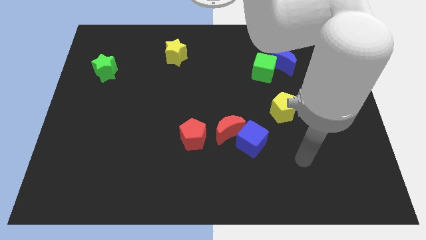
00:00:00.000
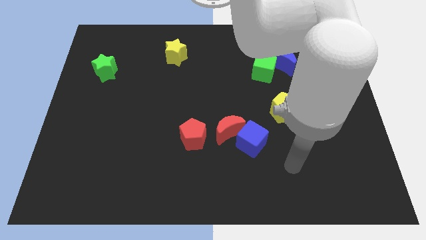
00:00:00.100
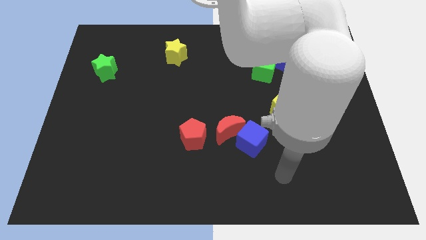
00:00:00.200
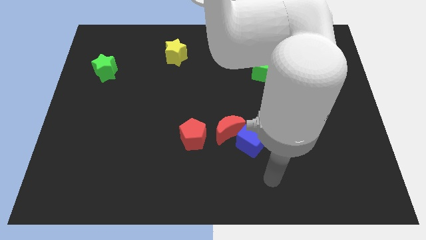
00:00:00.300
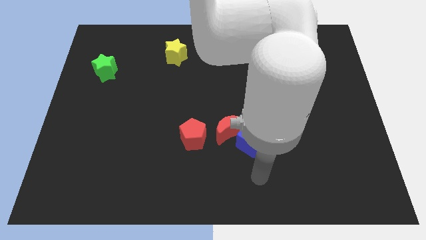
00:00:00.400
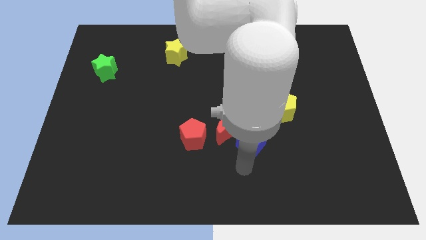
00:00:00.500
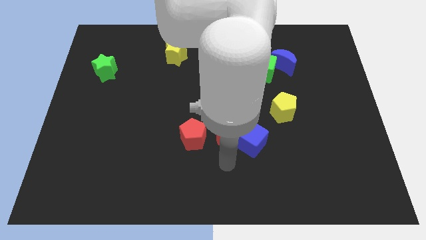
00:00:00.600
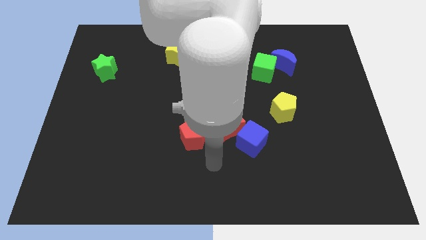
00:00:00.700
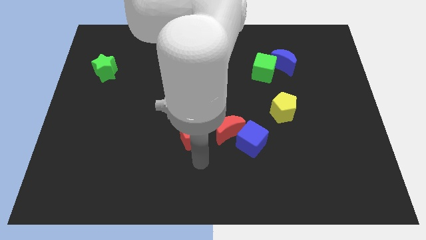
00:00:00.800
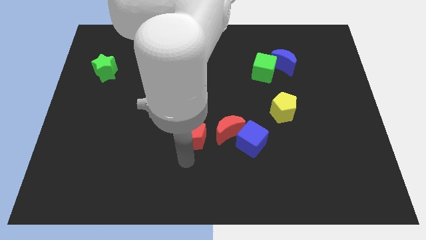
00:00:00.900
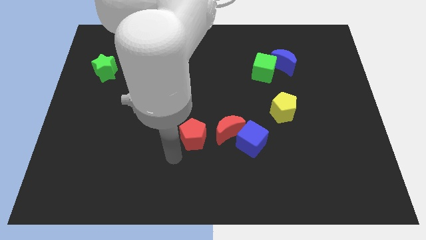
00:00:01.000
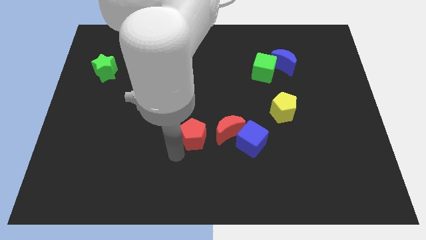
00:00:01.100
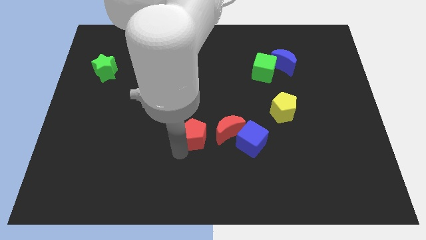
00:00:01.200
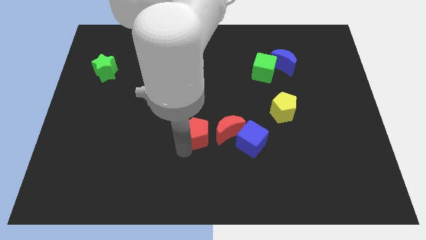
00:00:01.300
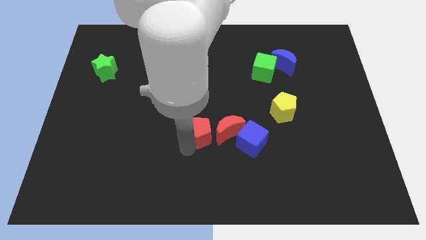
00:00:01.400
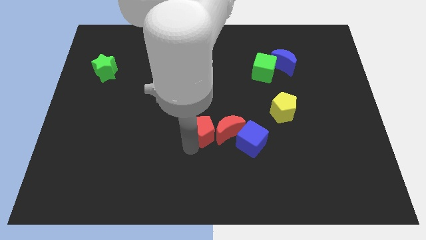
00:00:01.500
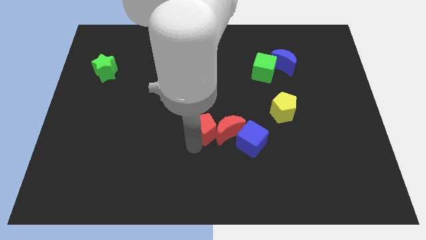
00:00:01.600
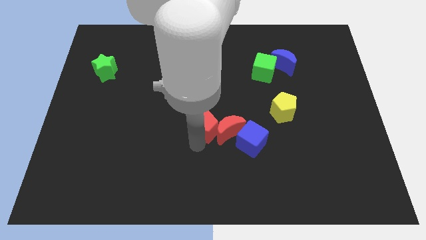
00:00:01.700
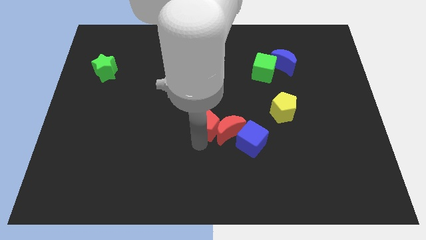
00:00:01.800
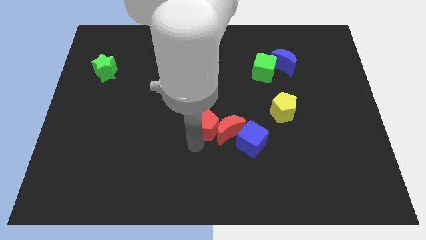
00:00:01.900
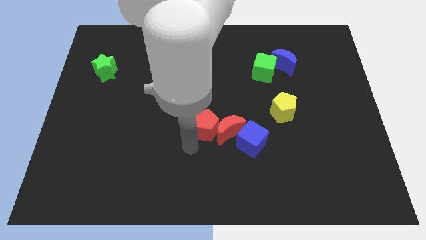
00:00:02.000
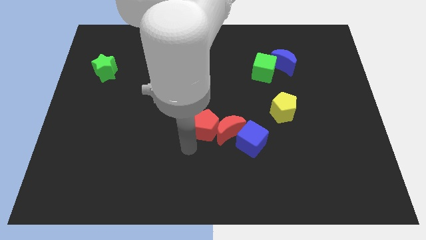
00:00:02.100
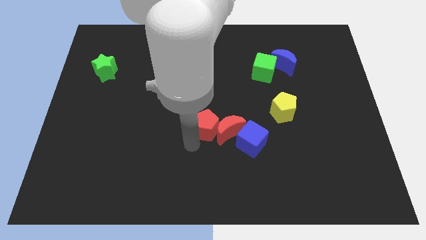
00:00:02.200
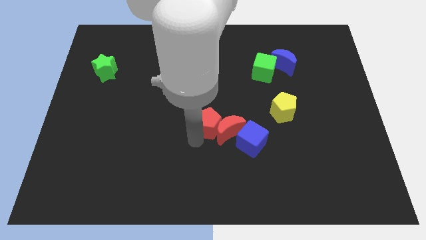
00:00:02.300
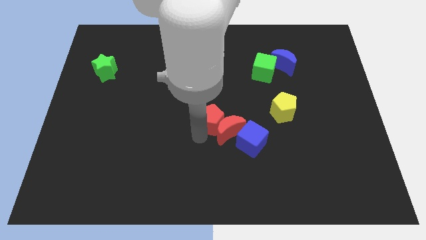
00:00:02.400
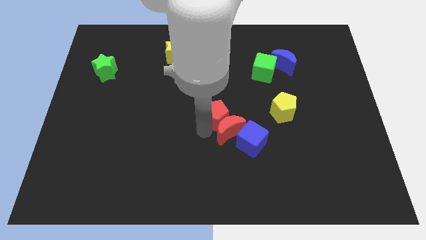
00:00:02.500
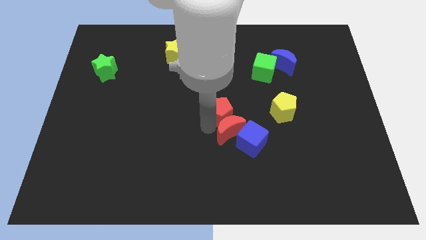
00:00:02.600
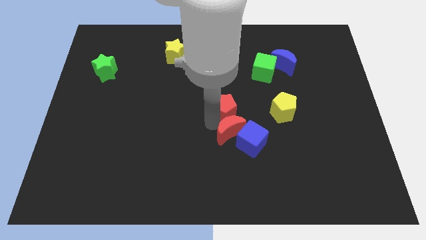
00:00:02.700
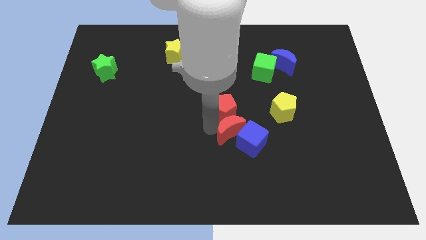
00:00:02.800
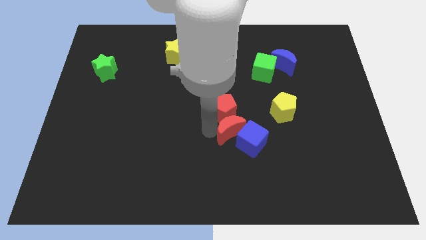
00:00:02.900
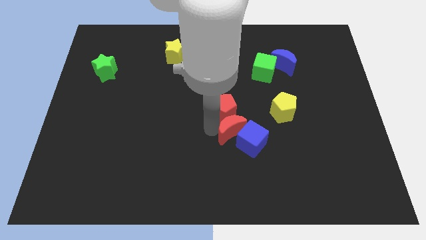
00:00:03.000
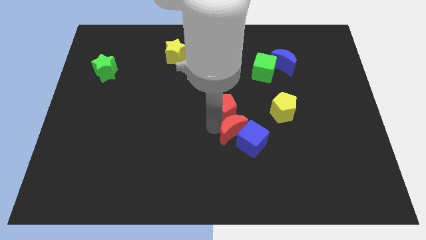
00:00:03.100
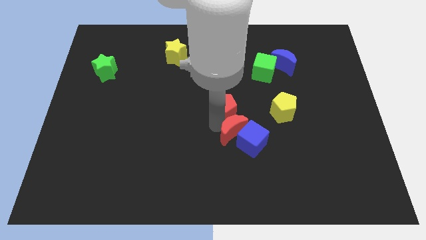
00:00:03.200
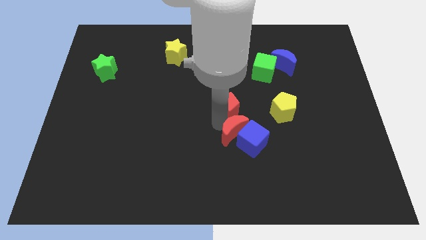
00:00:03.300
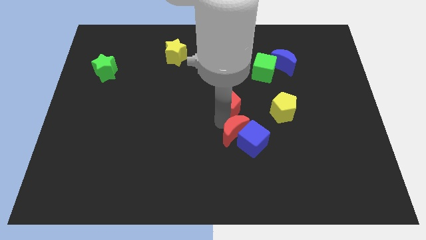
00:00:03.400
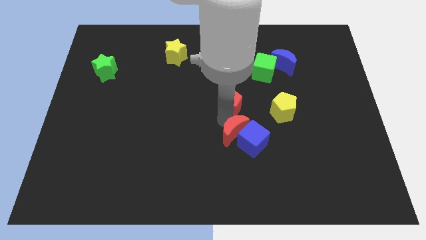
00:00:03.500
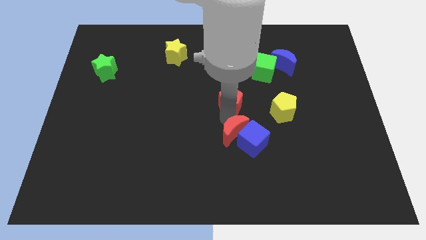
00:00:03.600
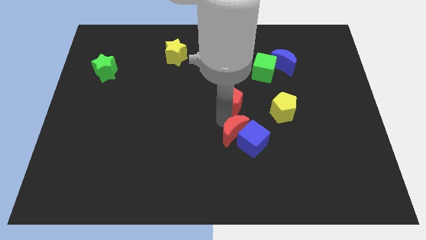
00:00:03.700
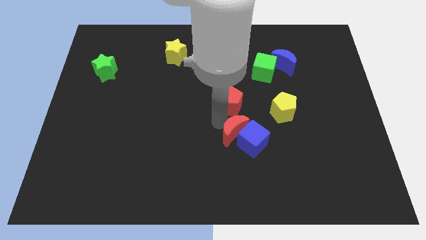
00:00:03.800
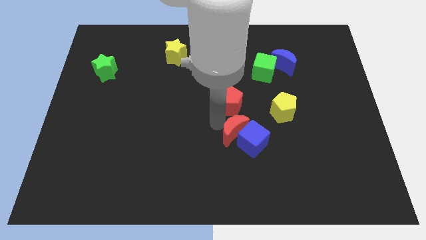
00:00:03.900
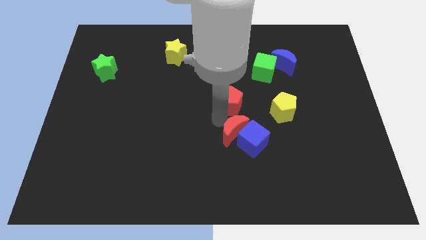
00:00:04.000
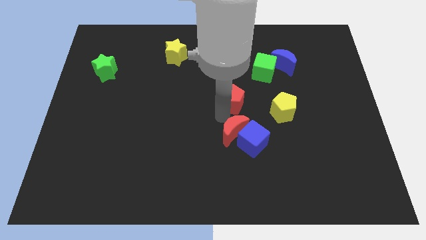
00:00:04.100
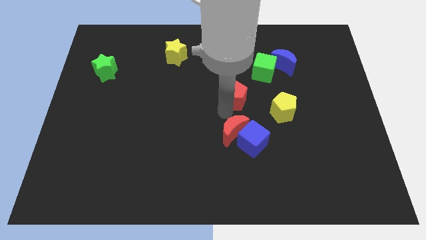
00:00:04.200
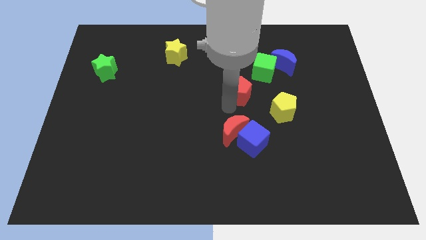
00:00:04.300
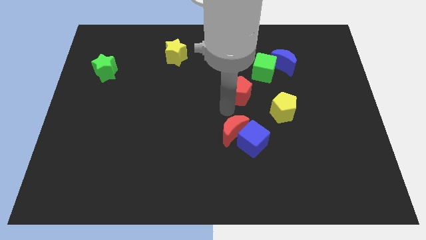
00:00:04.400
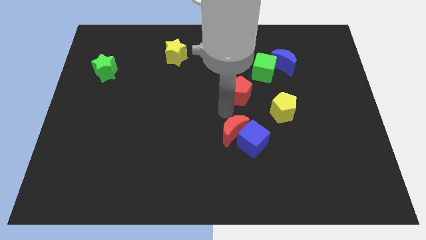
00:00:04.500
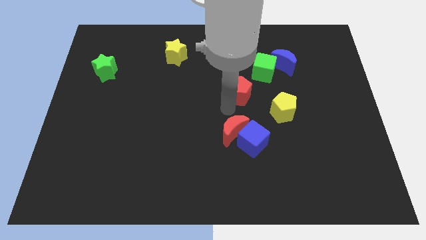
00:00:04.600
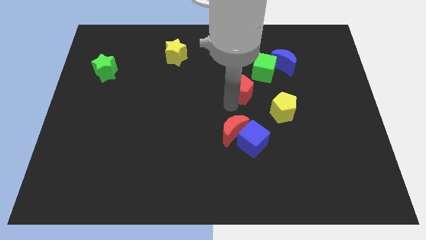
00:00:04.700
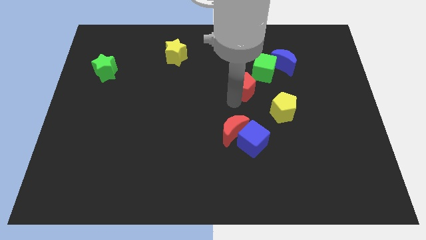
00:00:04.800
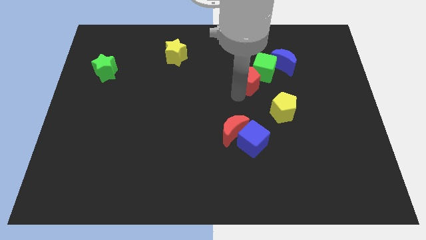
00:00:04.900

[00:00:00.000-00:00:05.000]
slide the red pentagon to the green cube

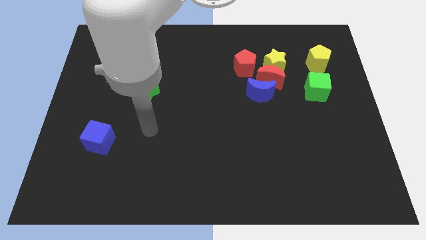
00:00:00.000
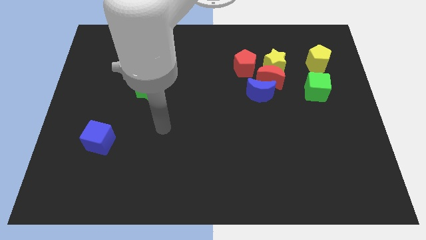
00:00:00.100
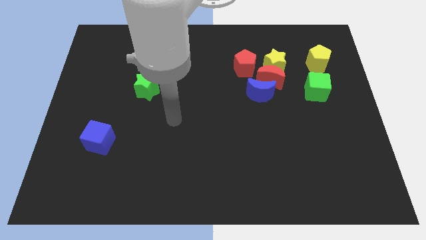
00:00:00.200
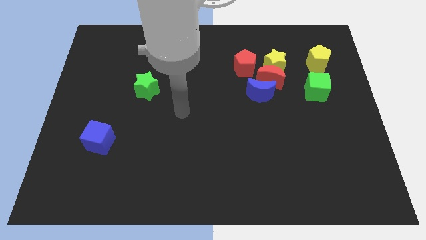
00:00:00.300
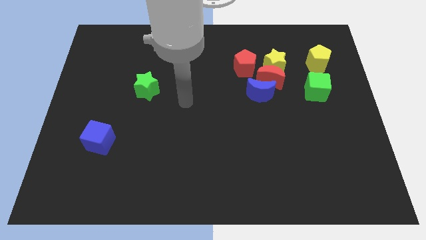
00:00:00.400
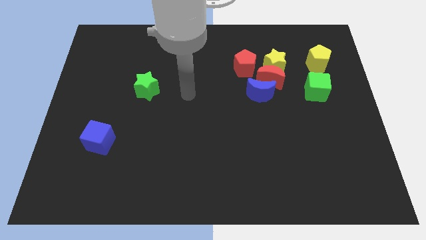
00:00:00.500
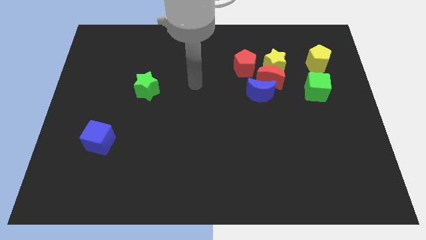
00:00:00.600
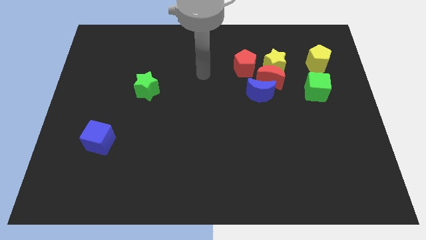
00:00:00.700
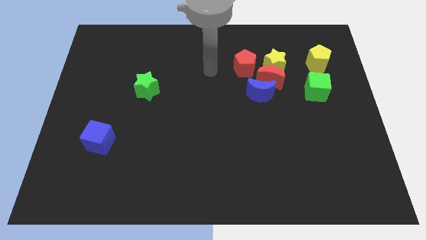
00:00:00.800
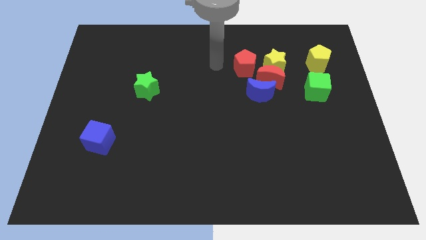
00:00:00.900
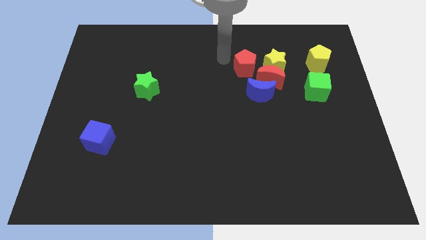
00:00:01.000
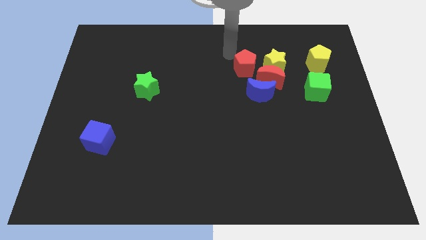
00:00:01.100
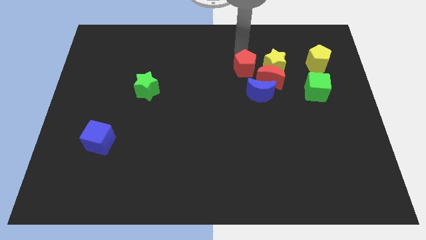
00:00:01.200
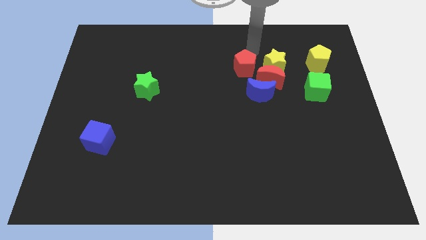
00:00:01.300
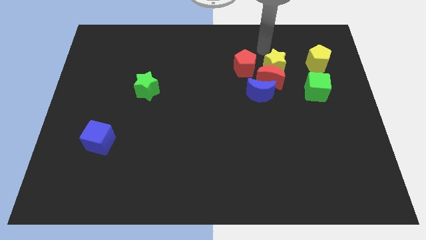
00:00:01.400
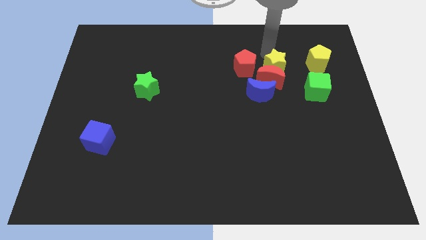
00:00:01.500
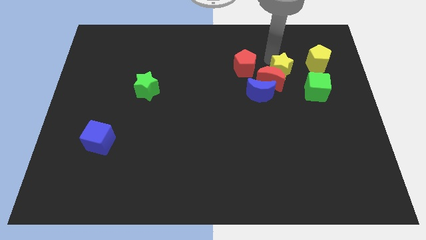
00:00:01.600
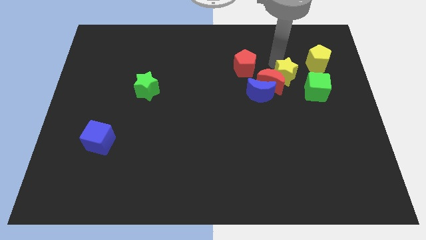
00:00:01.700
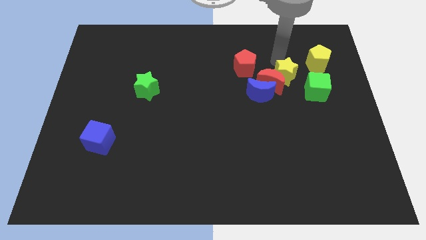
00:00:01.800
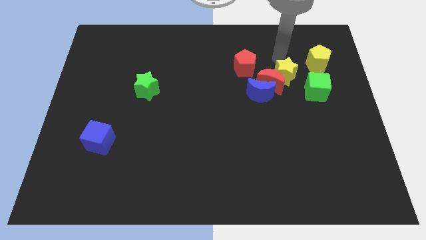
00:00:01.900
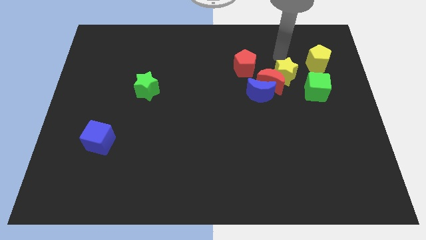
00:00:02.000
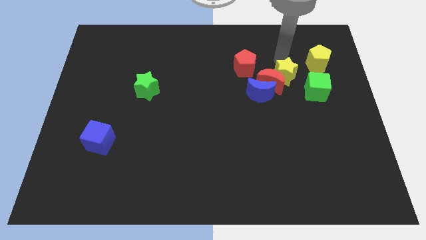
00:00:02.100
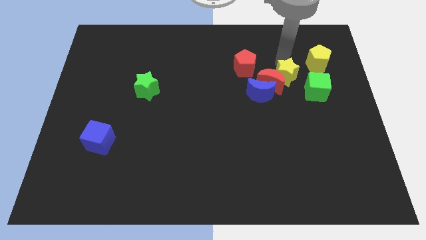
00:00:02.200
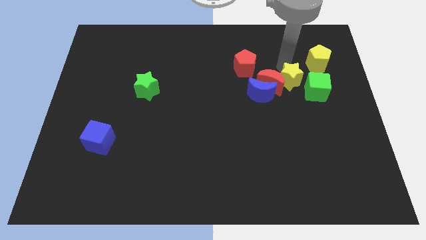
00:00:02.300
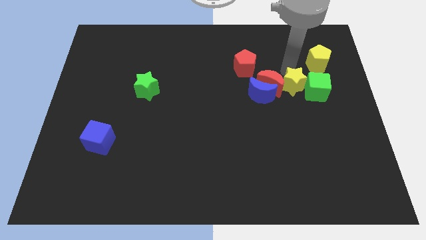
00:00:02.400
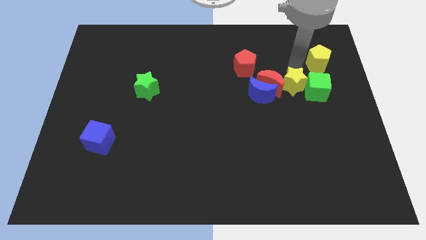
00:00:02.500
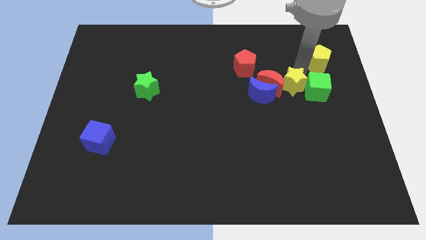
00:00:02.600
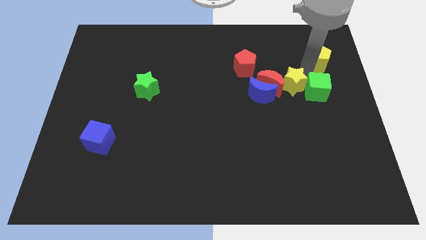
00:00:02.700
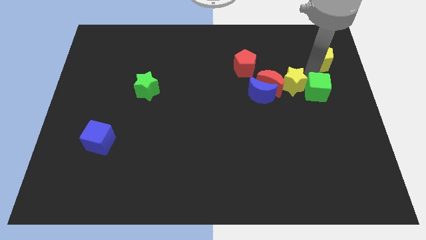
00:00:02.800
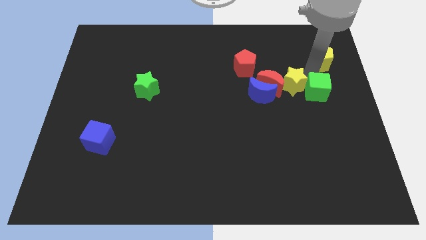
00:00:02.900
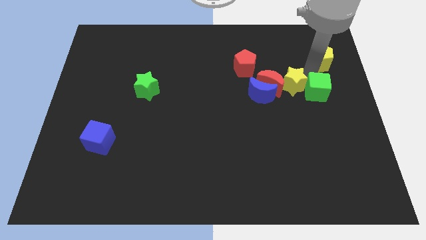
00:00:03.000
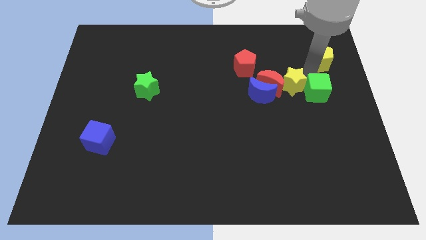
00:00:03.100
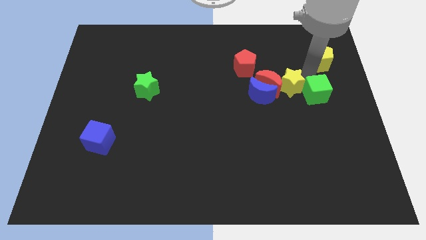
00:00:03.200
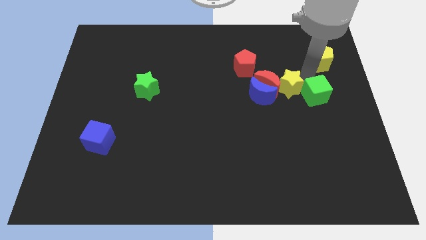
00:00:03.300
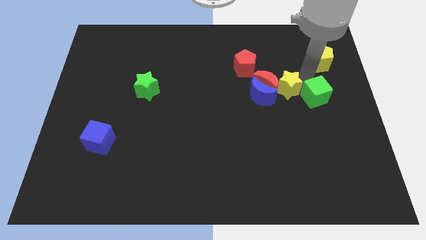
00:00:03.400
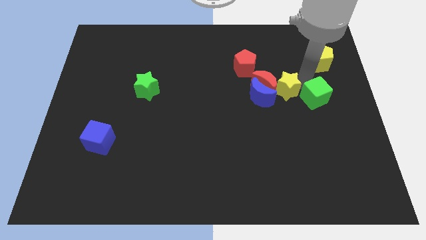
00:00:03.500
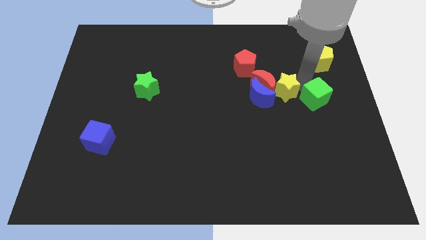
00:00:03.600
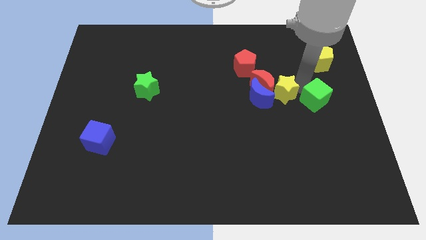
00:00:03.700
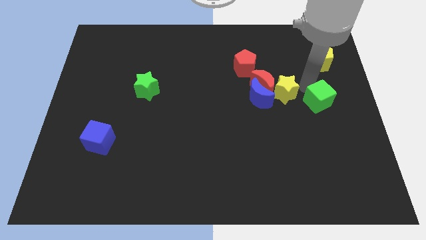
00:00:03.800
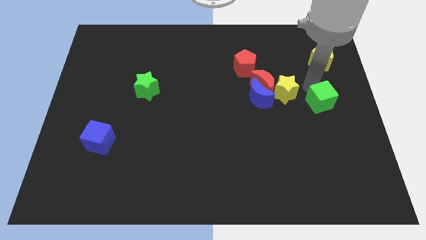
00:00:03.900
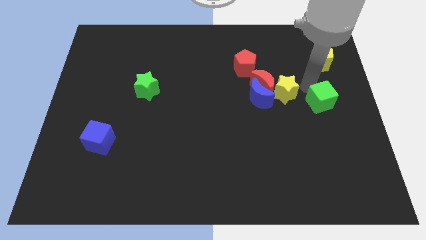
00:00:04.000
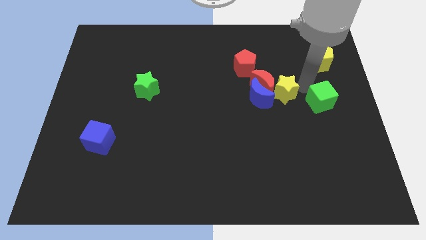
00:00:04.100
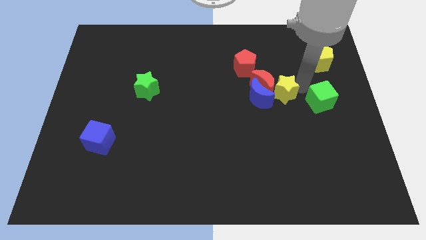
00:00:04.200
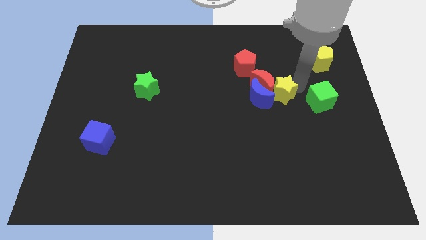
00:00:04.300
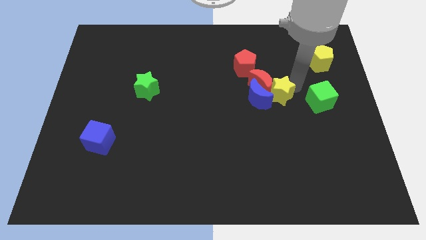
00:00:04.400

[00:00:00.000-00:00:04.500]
slide the yellow star towards the blue moon
